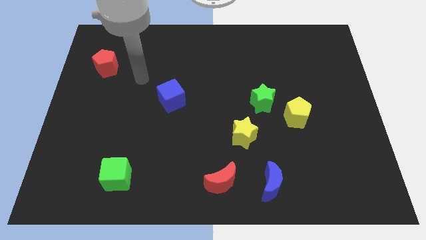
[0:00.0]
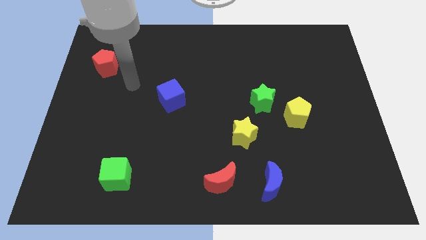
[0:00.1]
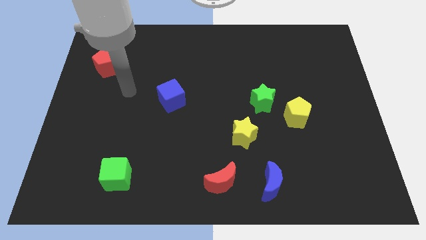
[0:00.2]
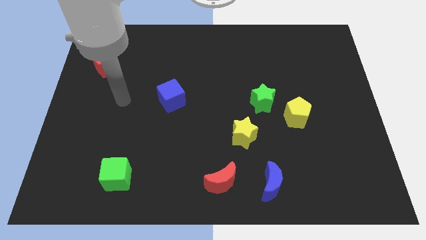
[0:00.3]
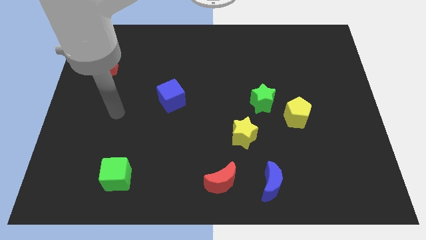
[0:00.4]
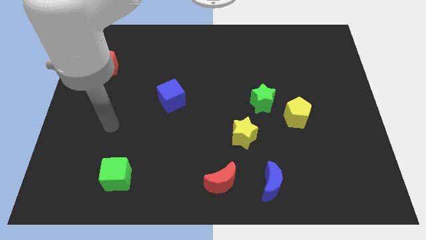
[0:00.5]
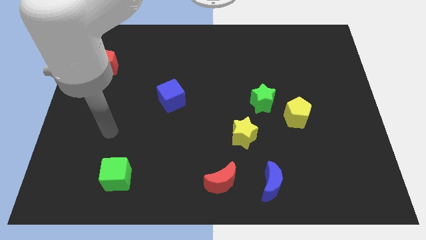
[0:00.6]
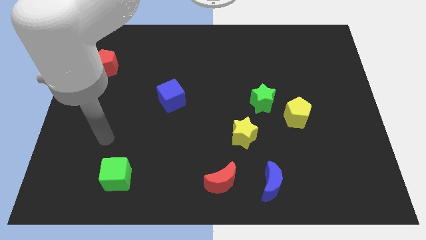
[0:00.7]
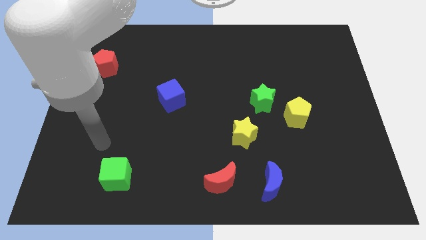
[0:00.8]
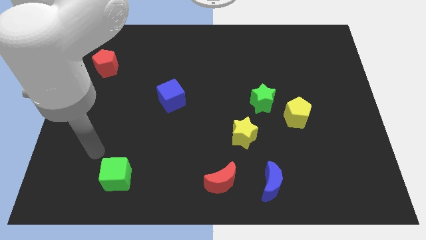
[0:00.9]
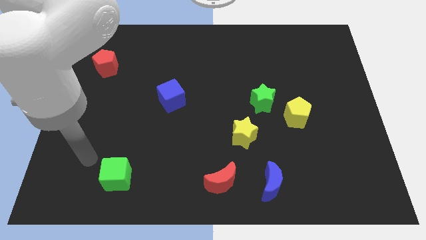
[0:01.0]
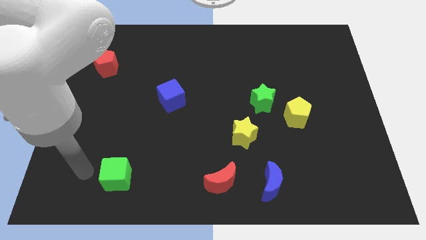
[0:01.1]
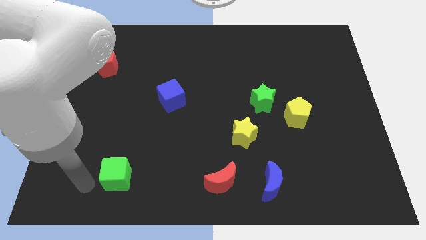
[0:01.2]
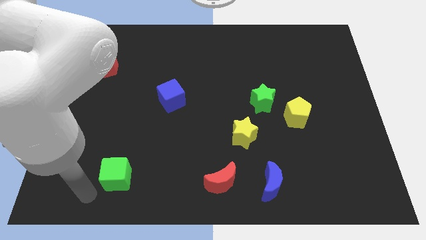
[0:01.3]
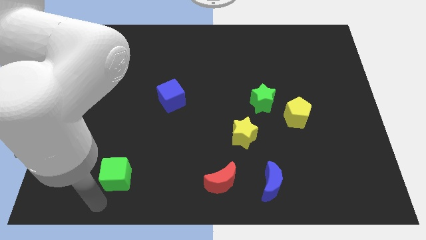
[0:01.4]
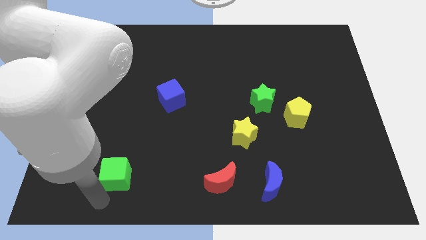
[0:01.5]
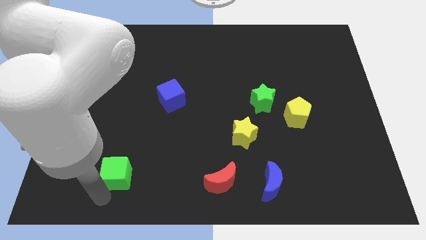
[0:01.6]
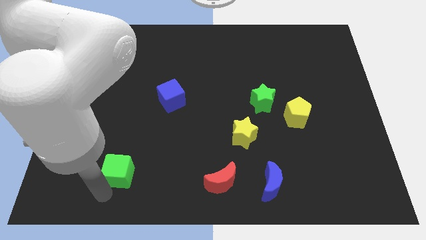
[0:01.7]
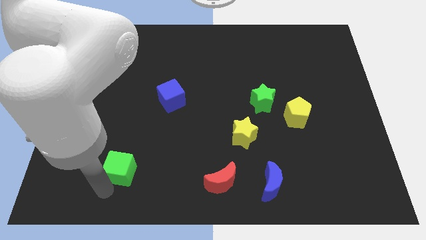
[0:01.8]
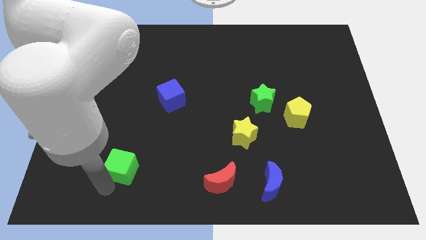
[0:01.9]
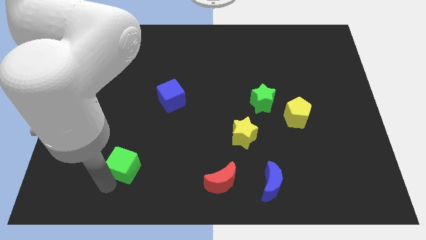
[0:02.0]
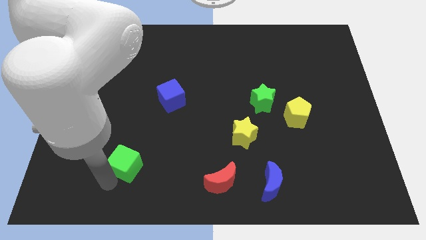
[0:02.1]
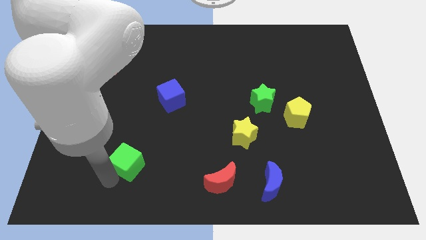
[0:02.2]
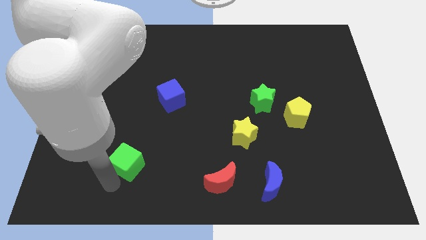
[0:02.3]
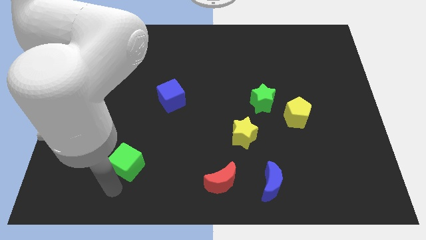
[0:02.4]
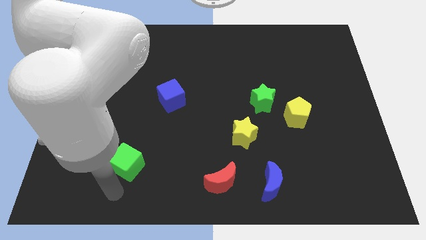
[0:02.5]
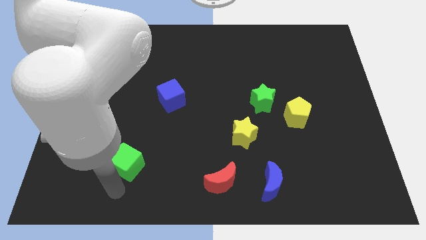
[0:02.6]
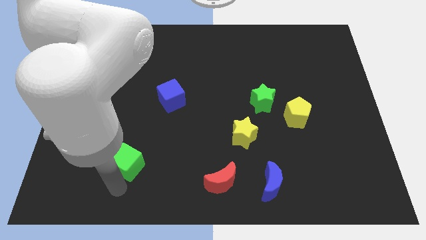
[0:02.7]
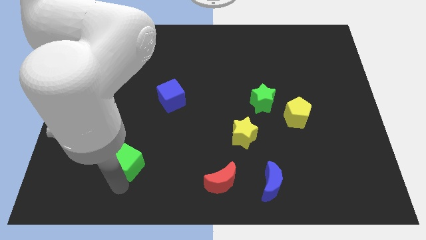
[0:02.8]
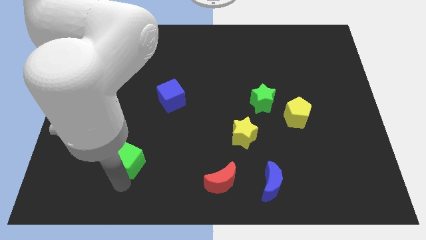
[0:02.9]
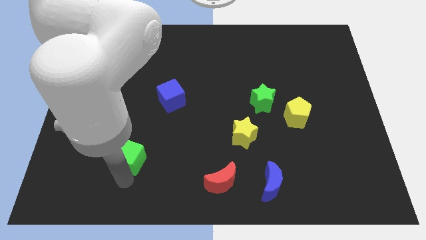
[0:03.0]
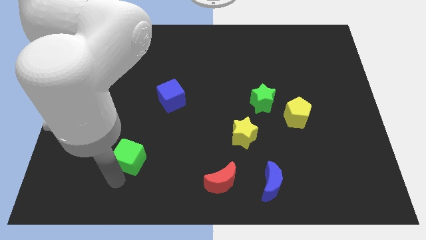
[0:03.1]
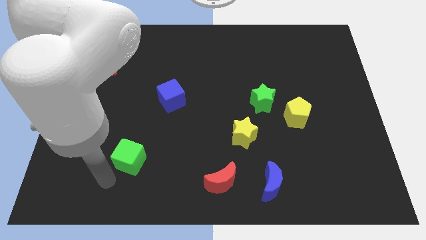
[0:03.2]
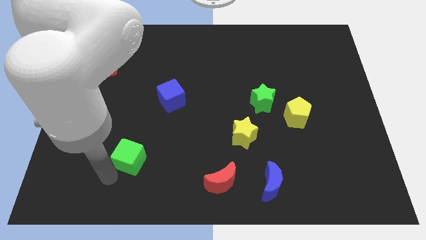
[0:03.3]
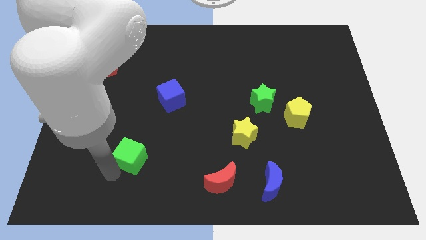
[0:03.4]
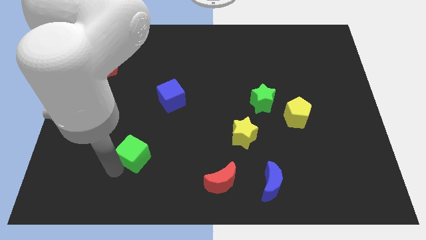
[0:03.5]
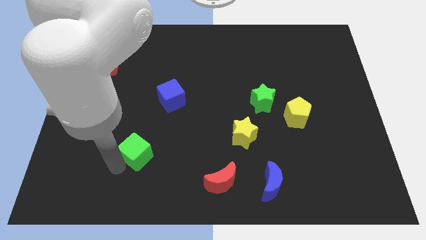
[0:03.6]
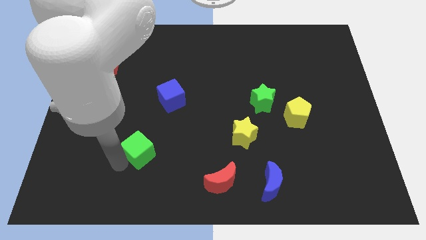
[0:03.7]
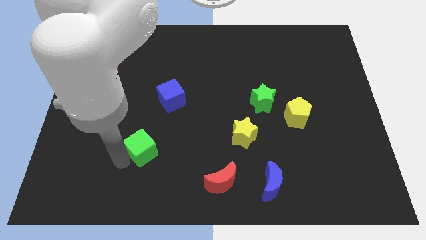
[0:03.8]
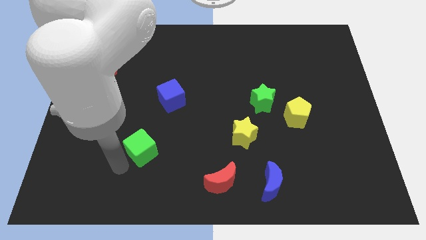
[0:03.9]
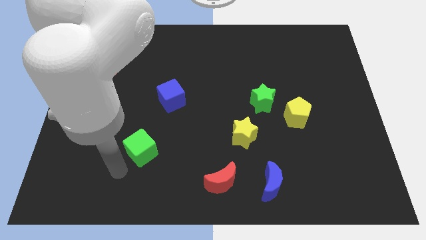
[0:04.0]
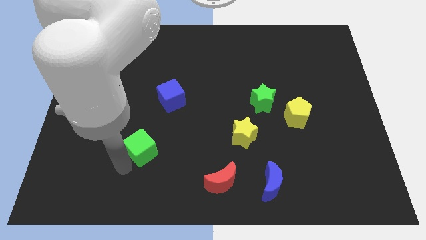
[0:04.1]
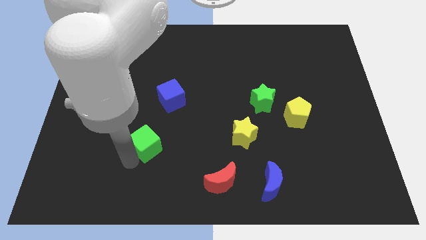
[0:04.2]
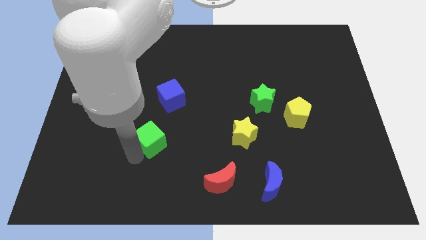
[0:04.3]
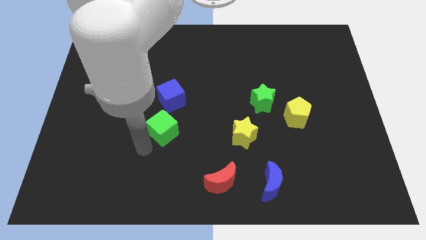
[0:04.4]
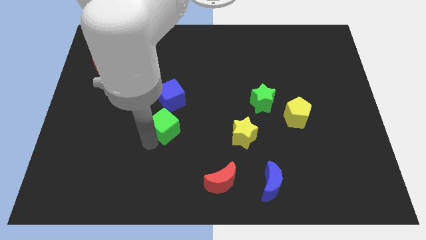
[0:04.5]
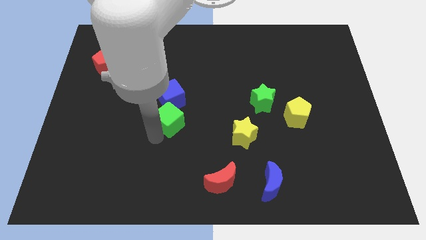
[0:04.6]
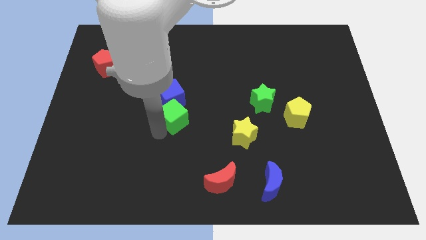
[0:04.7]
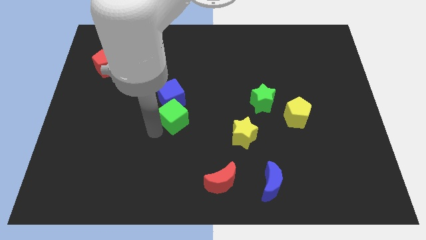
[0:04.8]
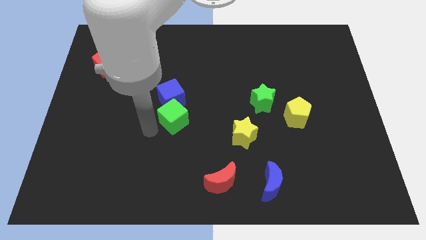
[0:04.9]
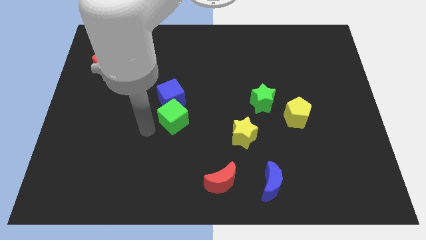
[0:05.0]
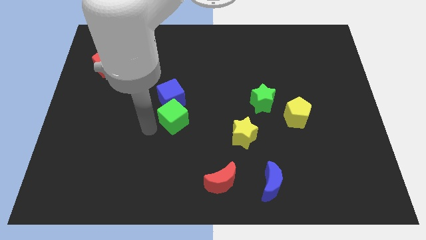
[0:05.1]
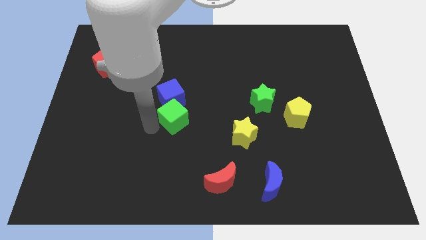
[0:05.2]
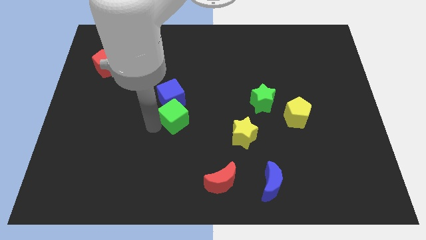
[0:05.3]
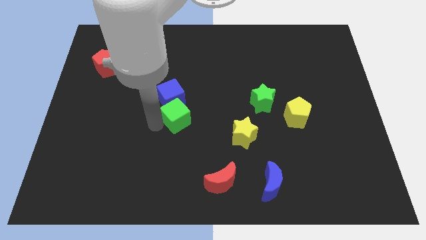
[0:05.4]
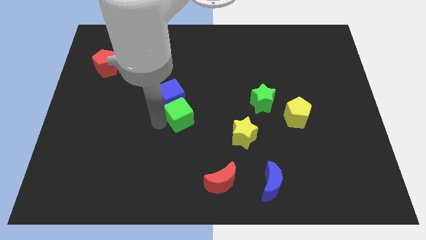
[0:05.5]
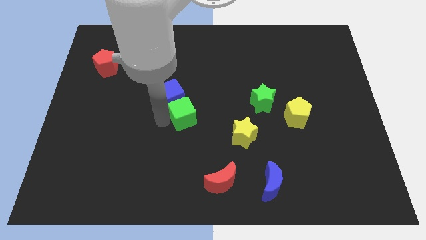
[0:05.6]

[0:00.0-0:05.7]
push the green cube up and to the right diagonally

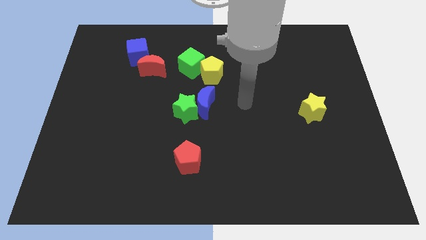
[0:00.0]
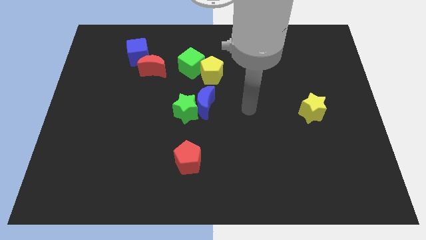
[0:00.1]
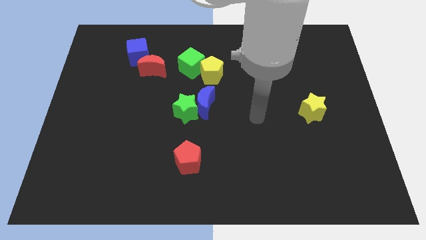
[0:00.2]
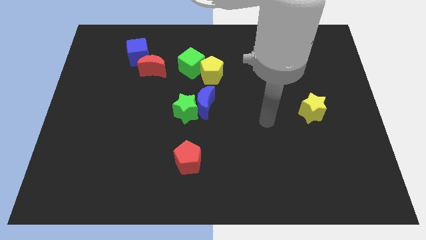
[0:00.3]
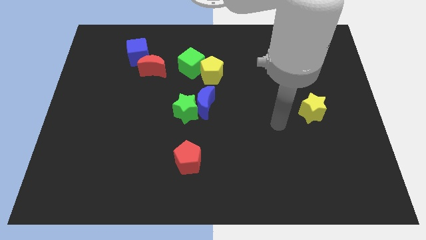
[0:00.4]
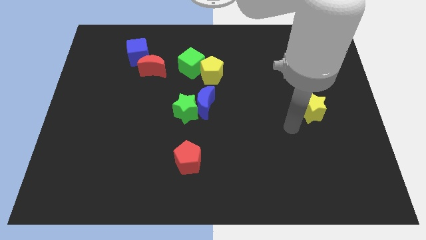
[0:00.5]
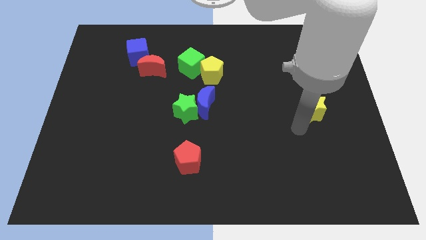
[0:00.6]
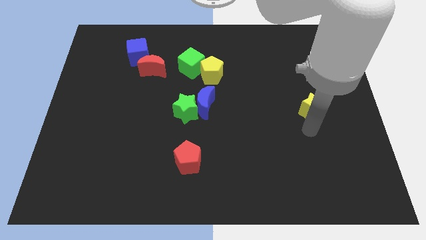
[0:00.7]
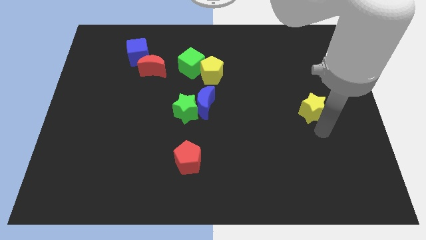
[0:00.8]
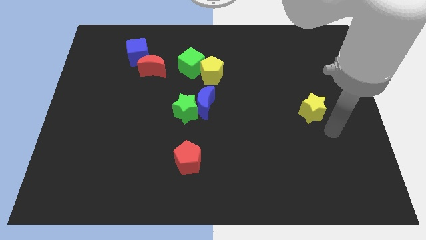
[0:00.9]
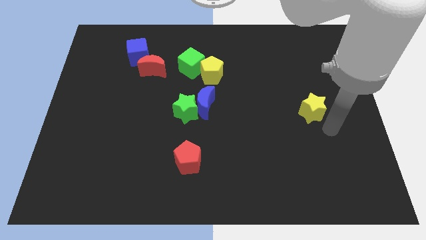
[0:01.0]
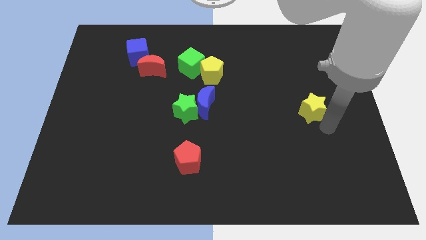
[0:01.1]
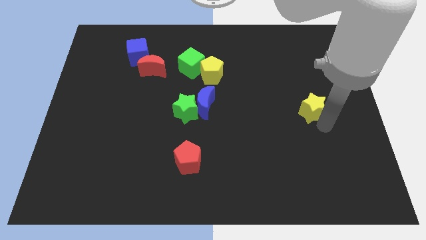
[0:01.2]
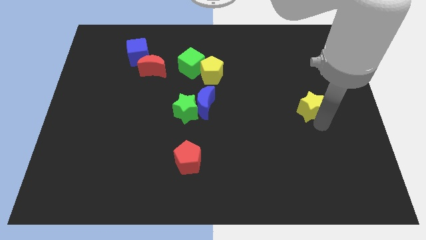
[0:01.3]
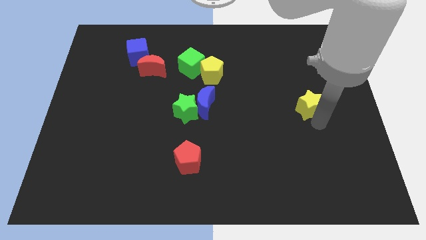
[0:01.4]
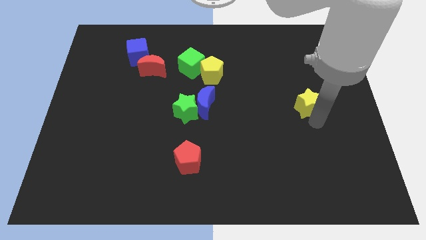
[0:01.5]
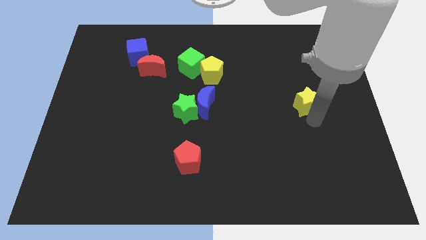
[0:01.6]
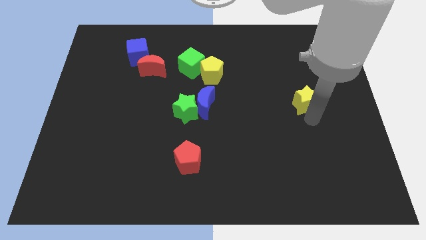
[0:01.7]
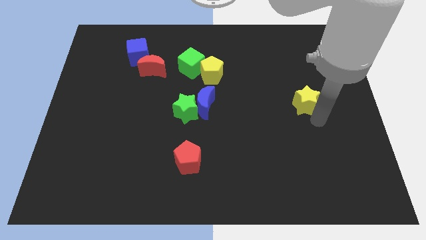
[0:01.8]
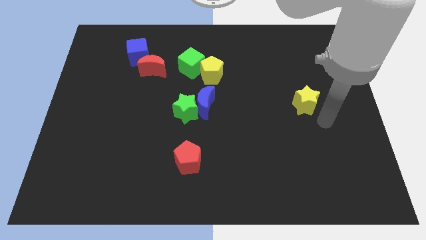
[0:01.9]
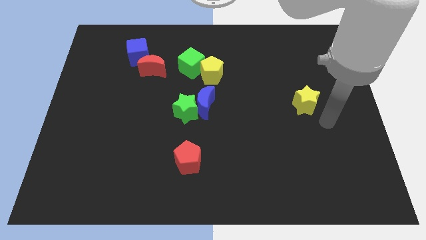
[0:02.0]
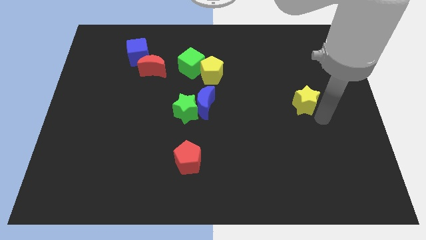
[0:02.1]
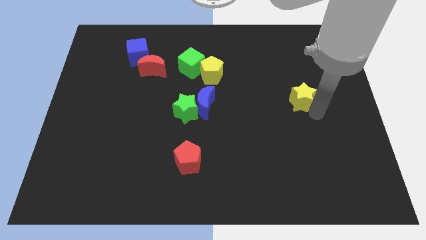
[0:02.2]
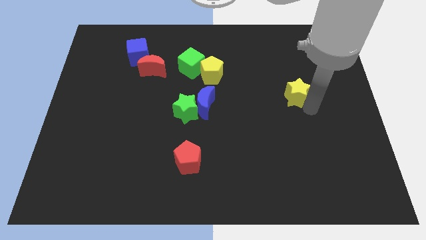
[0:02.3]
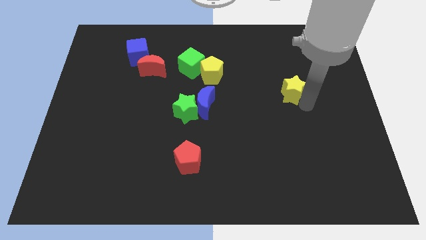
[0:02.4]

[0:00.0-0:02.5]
push the yellow star upwards and to the left a bit

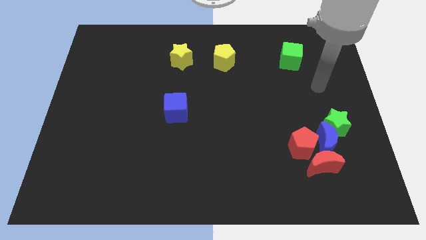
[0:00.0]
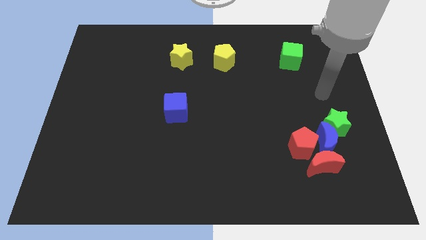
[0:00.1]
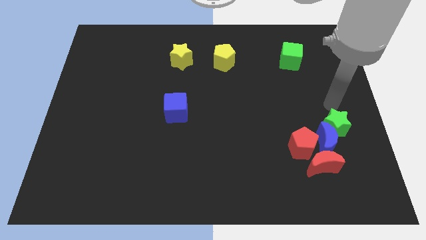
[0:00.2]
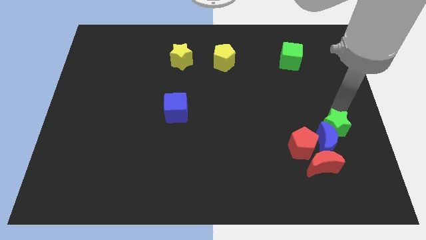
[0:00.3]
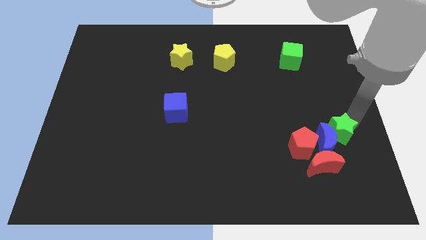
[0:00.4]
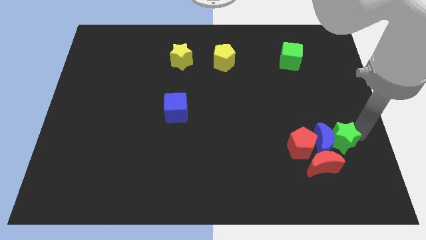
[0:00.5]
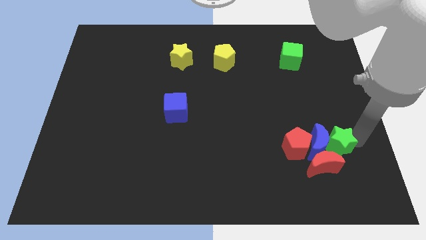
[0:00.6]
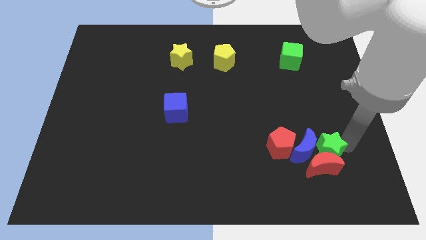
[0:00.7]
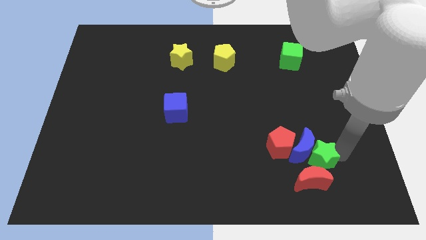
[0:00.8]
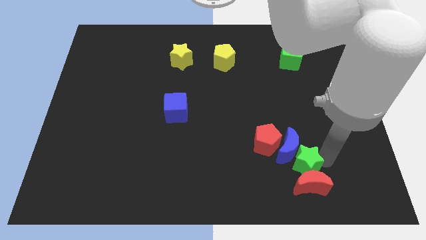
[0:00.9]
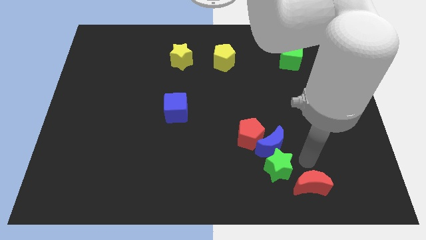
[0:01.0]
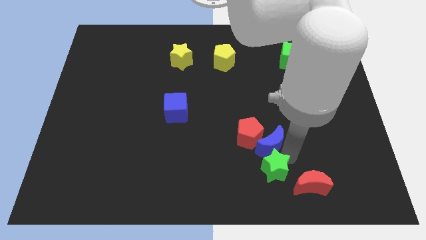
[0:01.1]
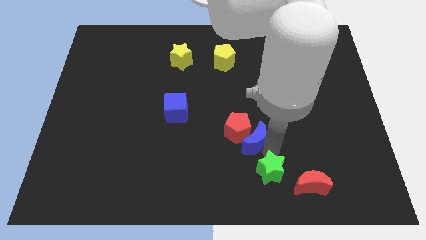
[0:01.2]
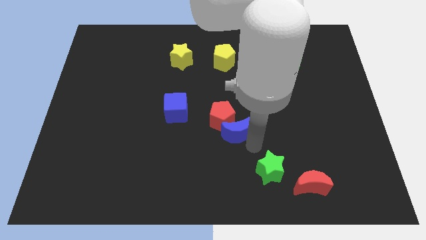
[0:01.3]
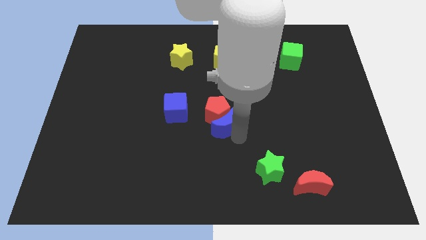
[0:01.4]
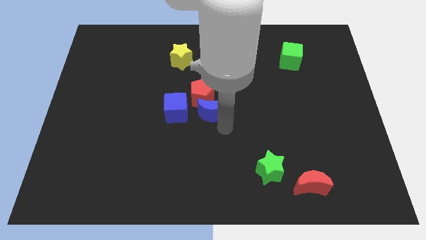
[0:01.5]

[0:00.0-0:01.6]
push the red pentagon up and left
